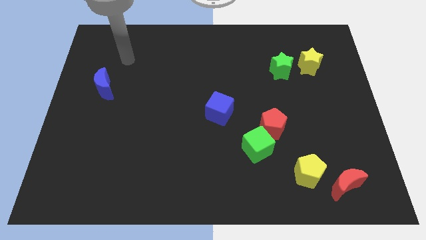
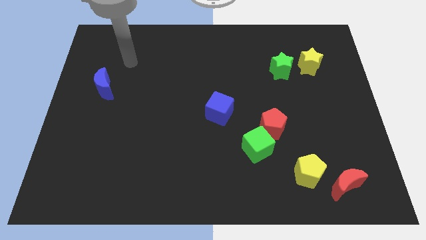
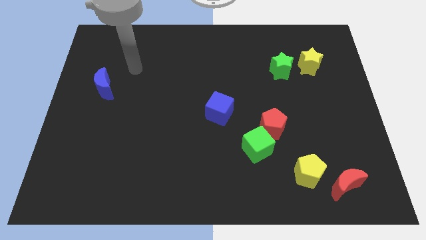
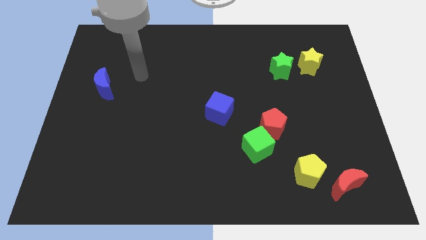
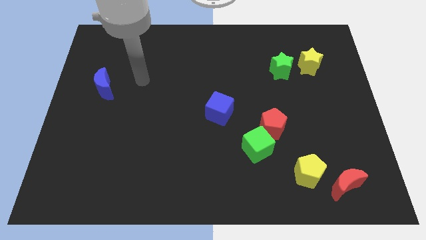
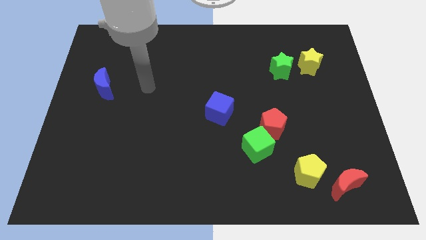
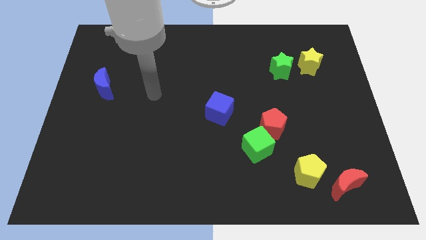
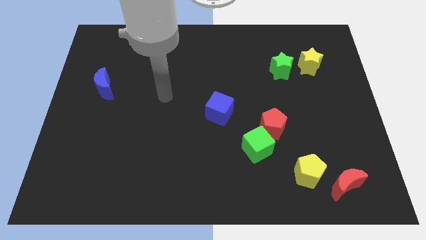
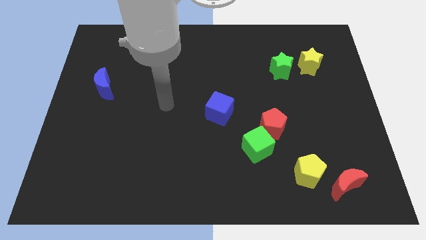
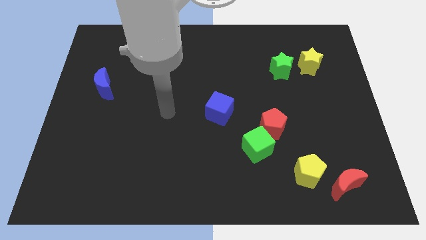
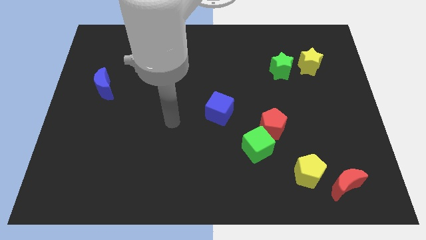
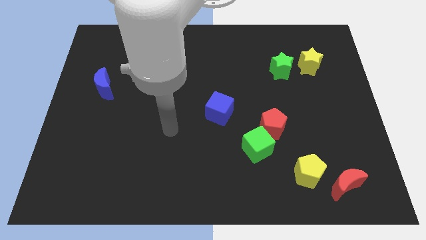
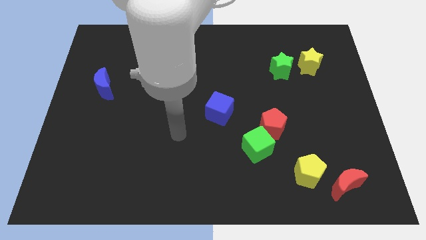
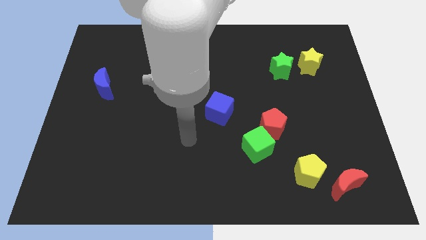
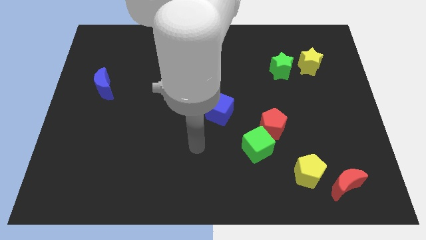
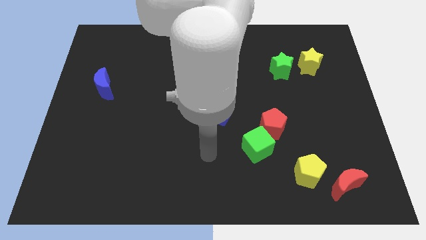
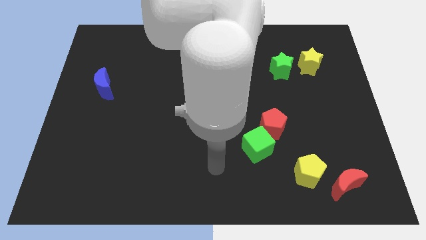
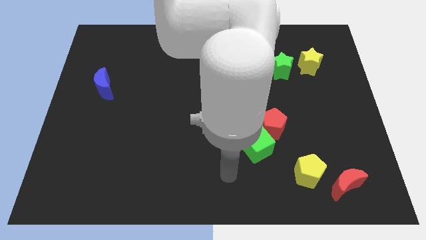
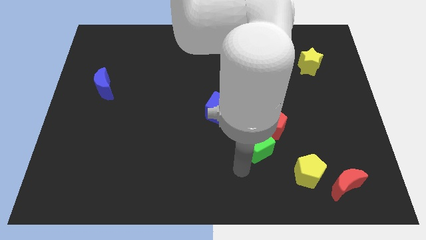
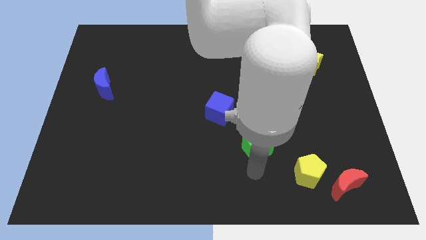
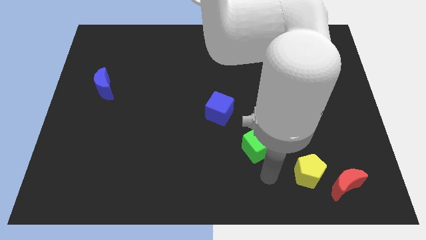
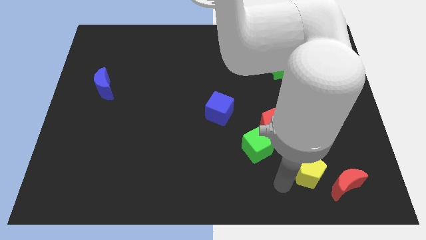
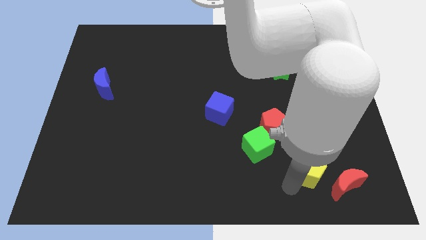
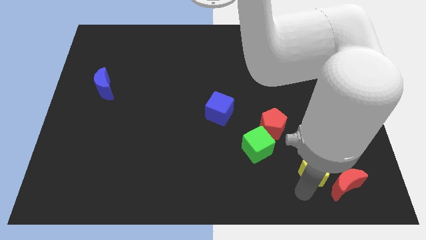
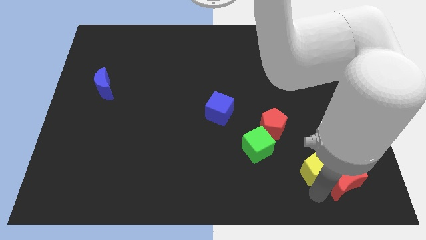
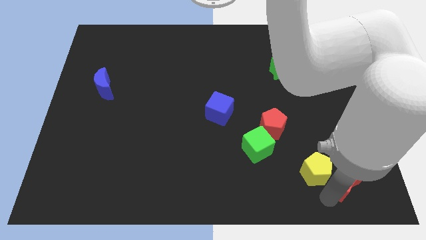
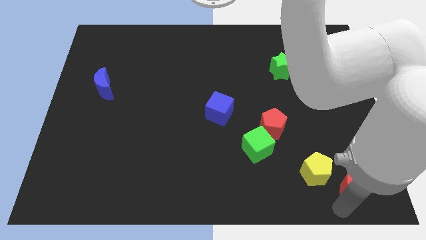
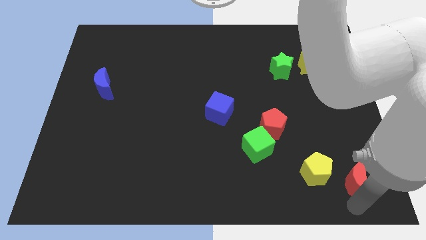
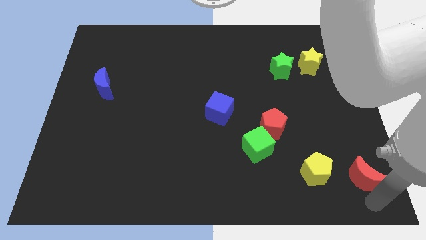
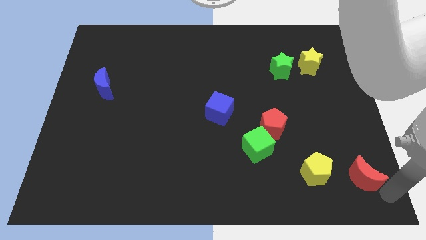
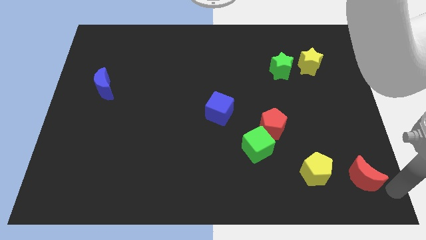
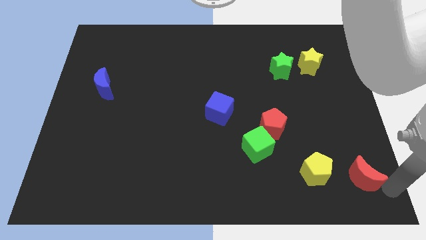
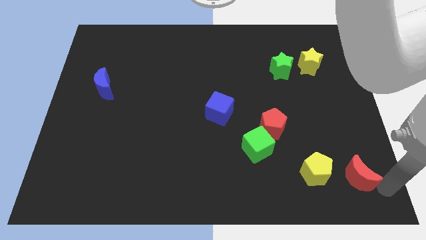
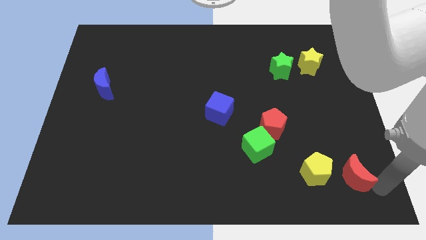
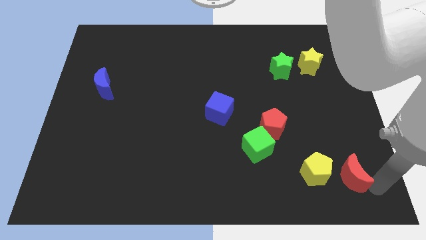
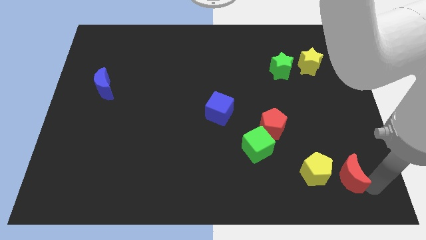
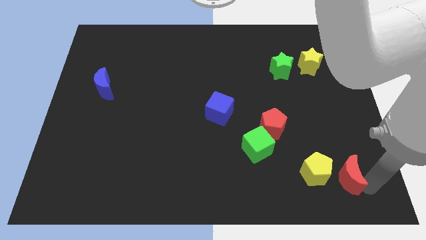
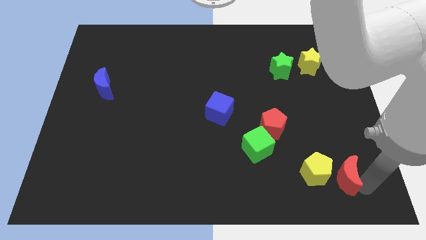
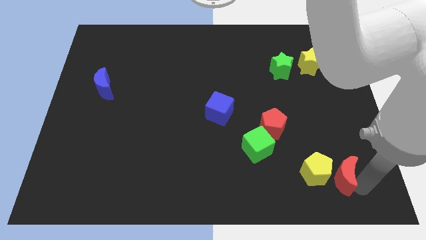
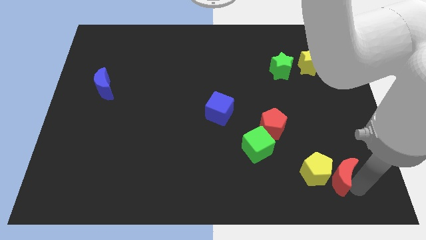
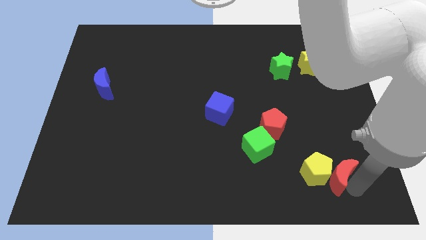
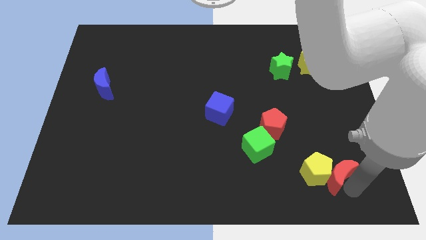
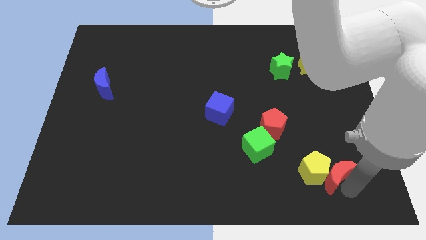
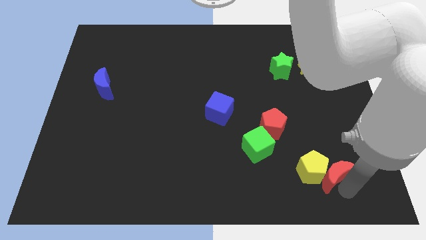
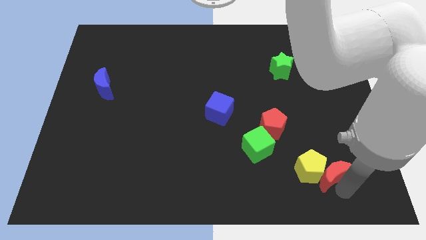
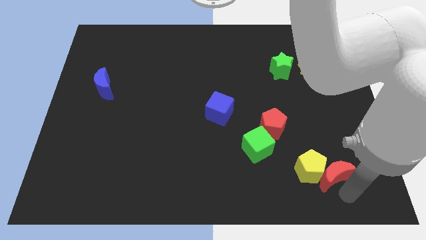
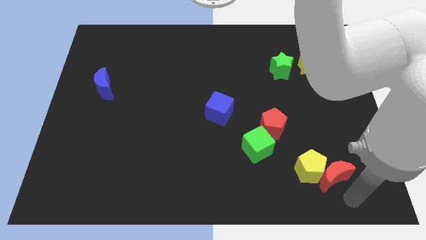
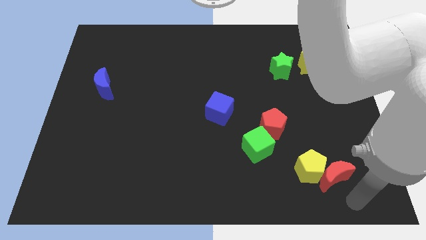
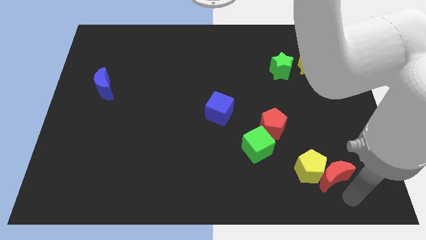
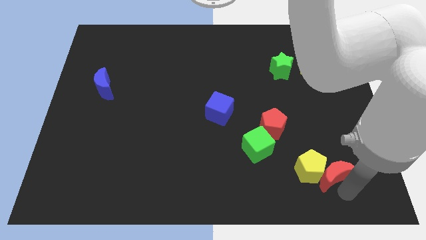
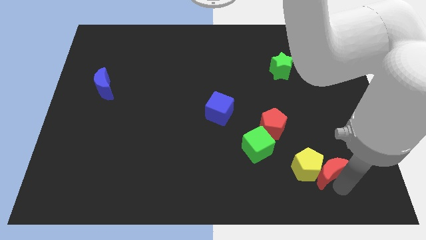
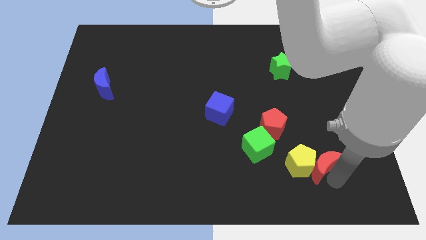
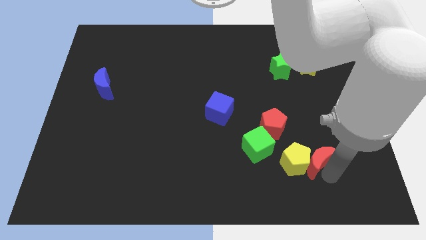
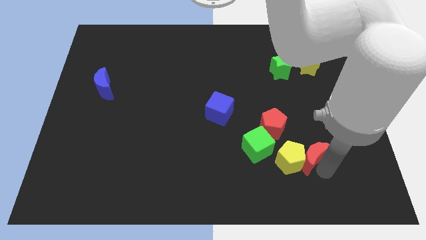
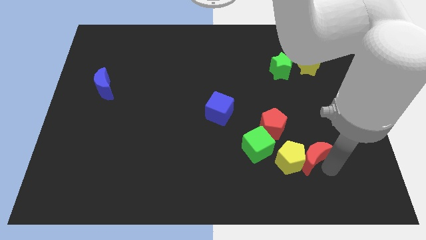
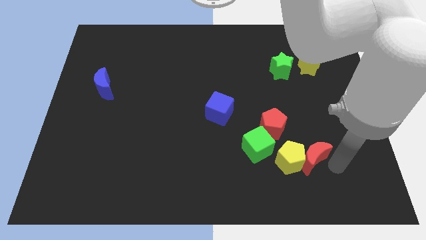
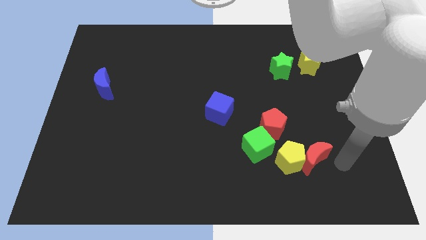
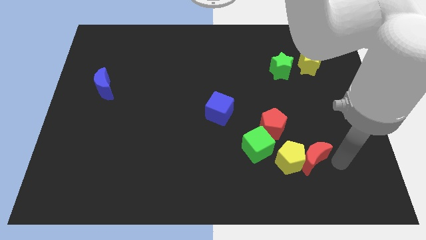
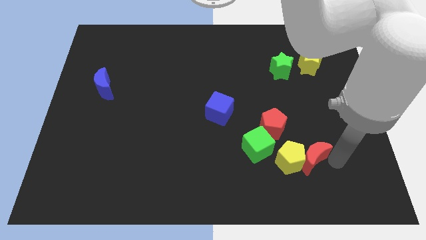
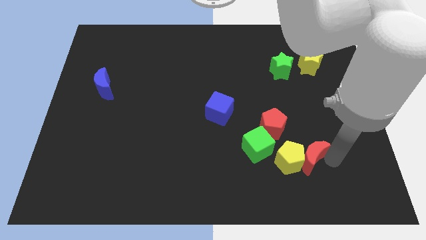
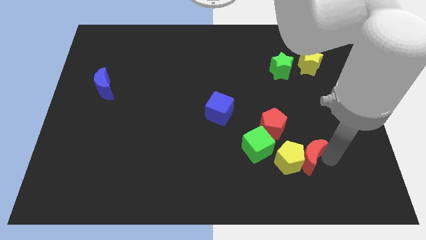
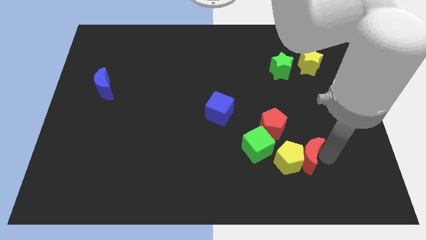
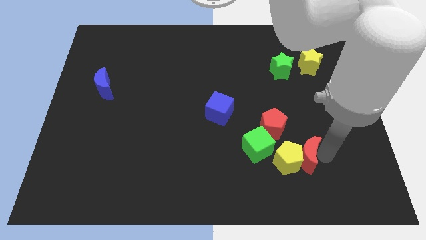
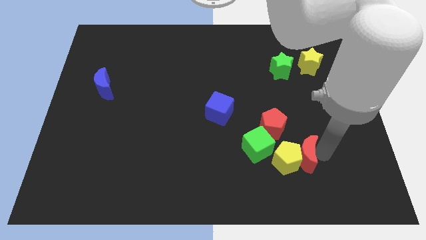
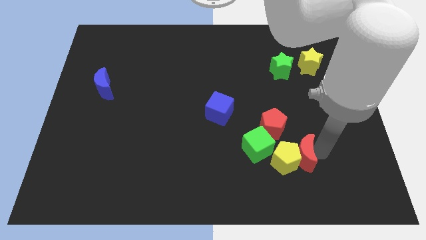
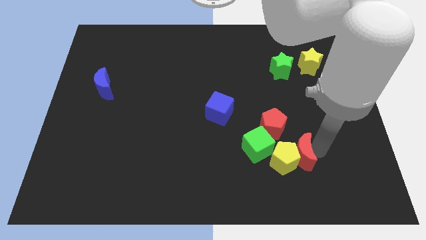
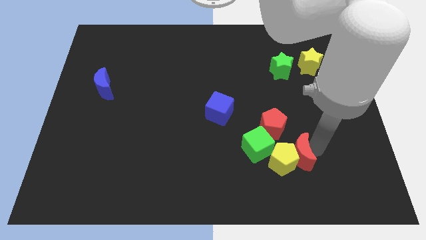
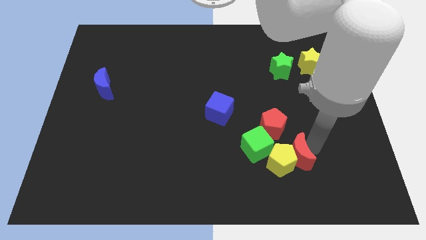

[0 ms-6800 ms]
move the red moon below the red pentagon
